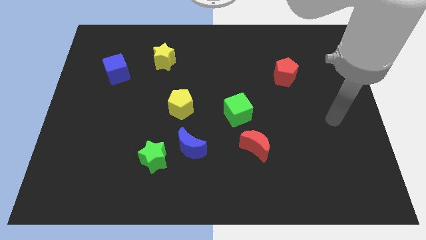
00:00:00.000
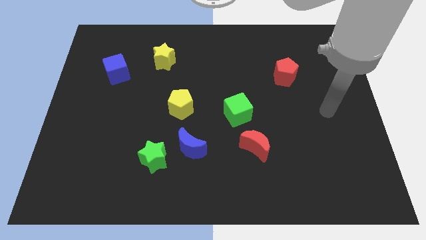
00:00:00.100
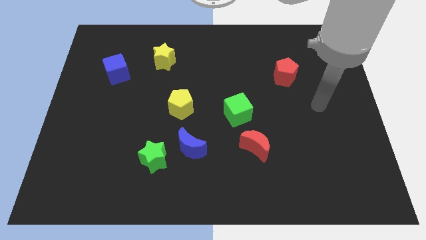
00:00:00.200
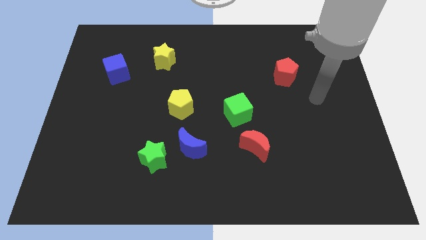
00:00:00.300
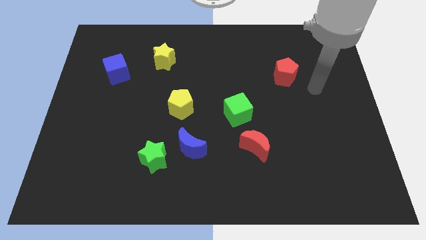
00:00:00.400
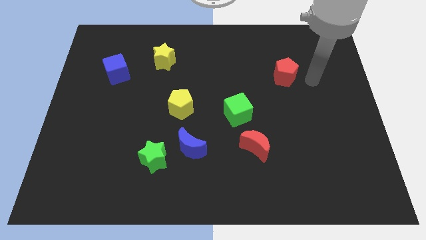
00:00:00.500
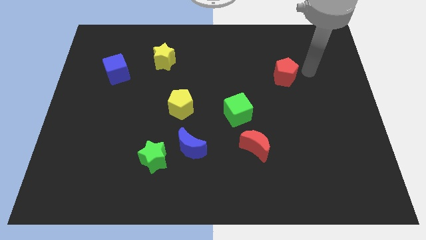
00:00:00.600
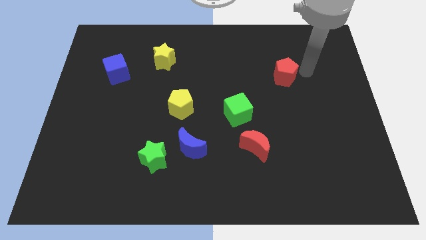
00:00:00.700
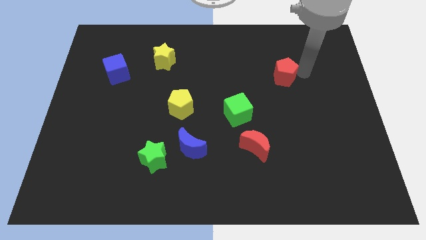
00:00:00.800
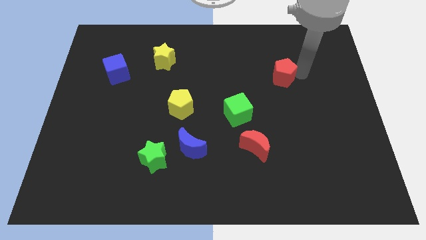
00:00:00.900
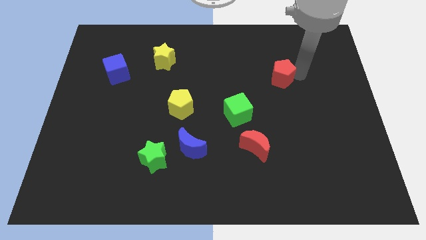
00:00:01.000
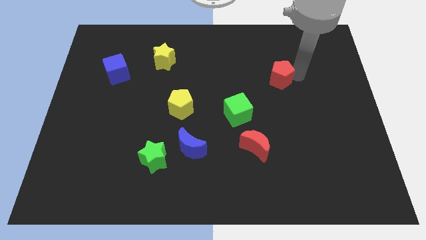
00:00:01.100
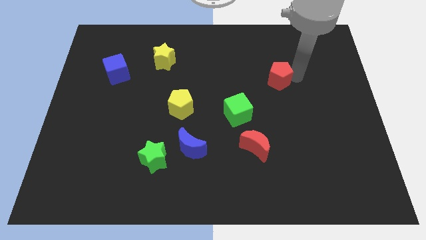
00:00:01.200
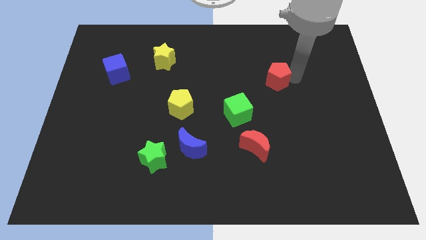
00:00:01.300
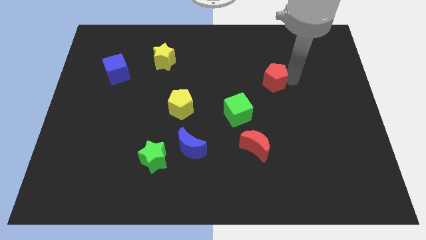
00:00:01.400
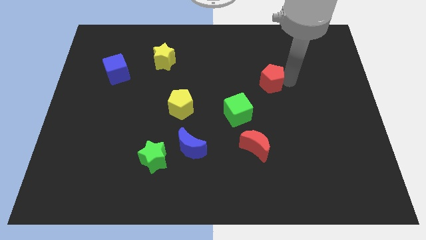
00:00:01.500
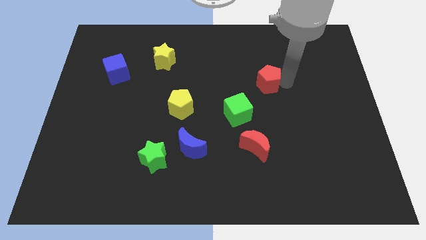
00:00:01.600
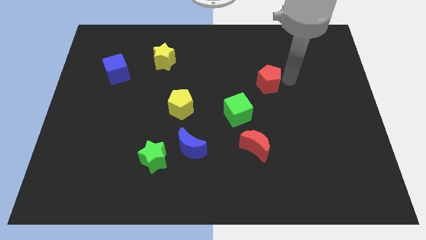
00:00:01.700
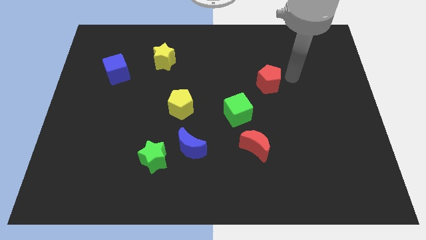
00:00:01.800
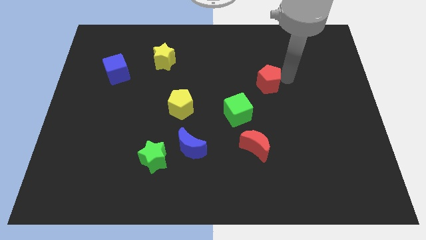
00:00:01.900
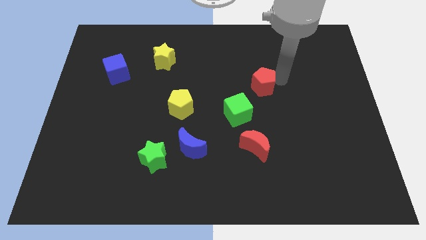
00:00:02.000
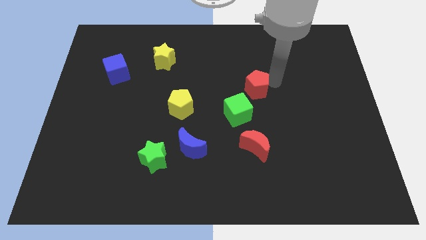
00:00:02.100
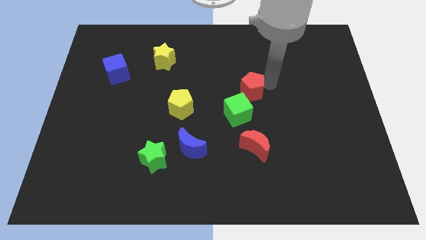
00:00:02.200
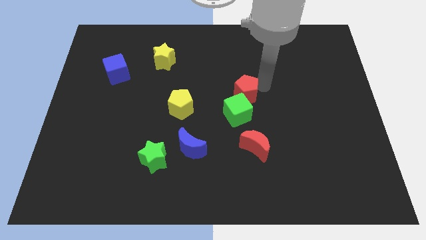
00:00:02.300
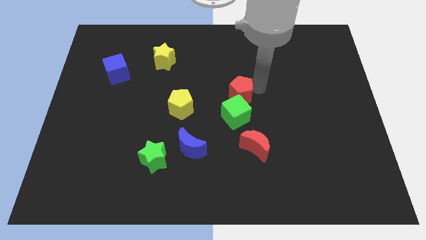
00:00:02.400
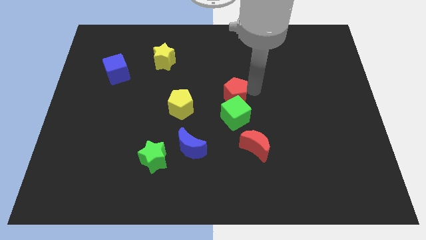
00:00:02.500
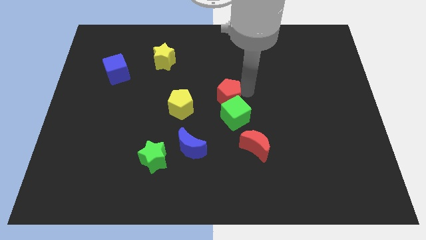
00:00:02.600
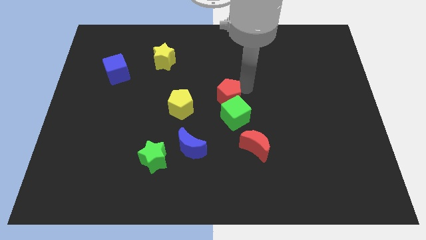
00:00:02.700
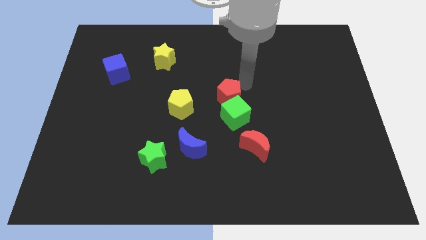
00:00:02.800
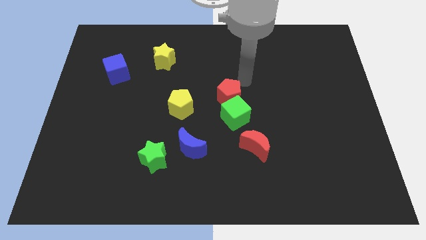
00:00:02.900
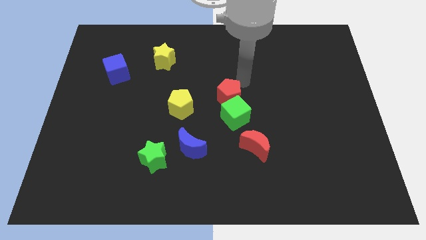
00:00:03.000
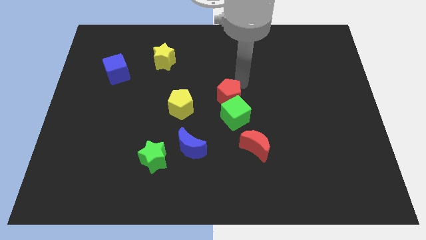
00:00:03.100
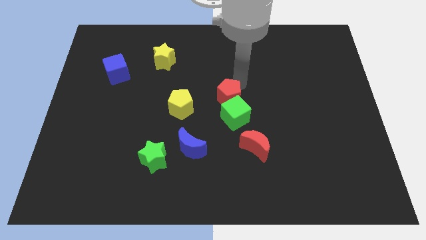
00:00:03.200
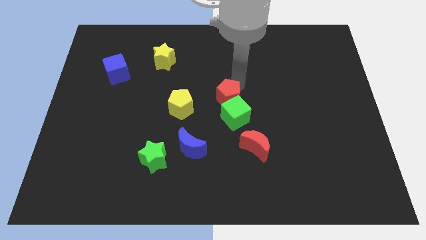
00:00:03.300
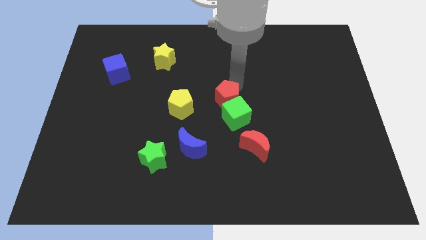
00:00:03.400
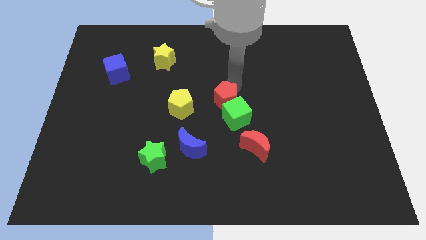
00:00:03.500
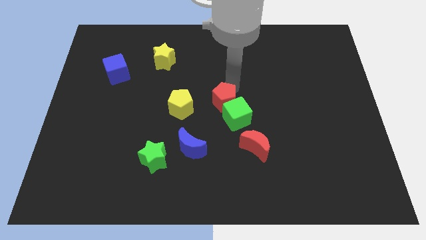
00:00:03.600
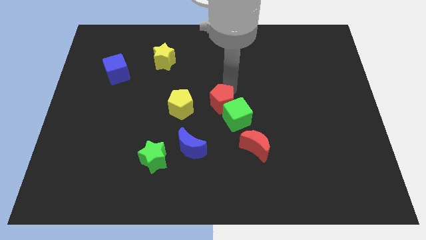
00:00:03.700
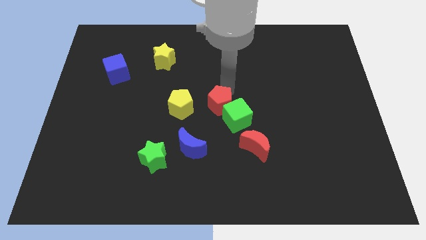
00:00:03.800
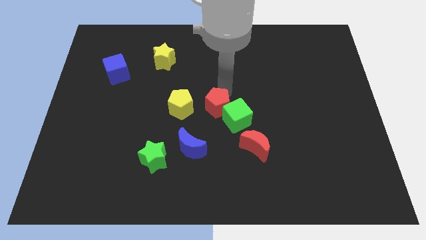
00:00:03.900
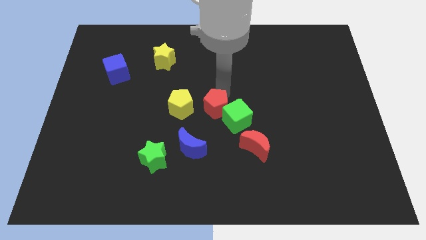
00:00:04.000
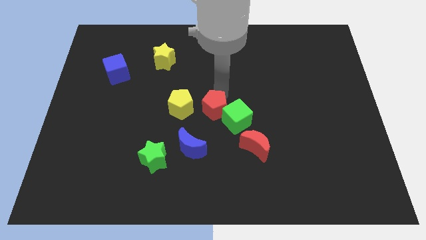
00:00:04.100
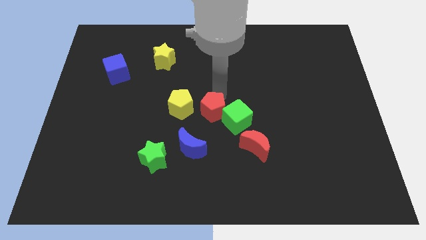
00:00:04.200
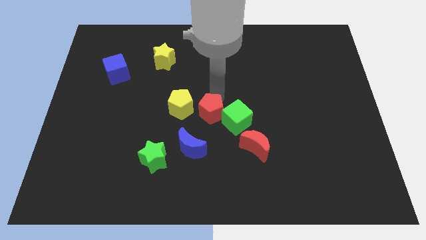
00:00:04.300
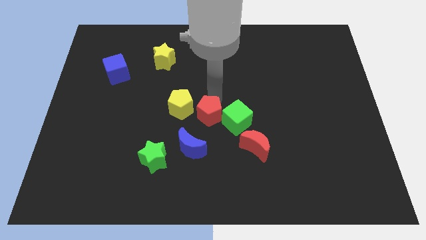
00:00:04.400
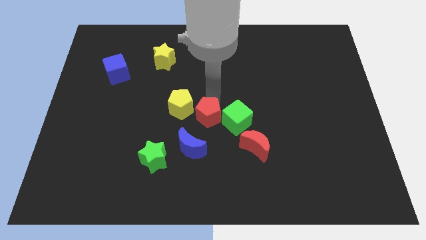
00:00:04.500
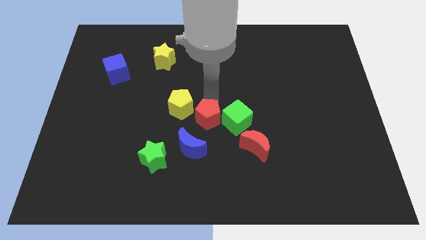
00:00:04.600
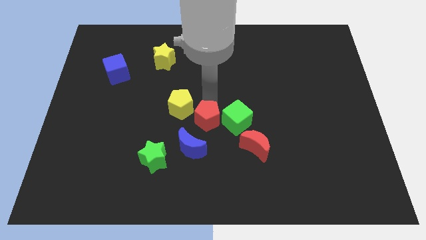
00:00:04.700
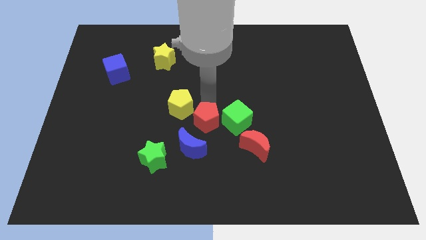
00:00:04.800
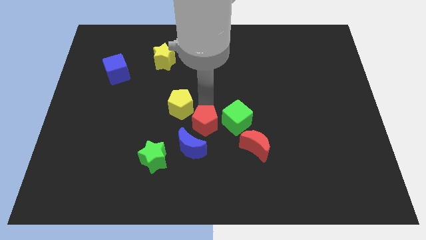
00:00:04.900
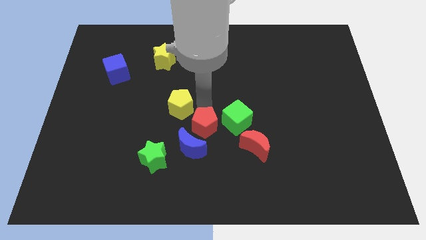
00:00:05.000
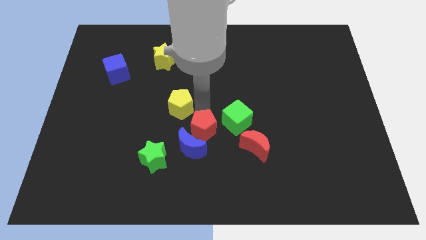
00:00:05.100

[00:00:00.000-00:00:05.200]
put the red pentagon close to the blue moon

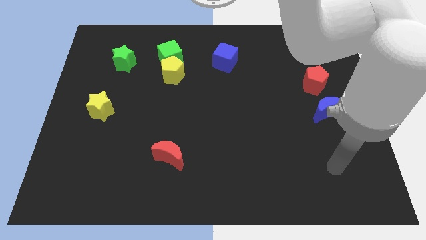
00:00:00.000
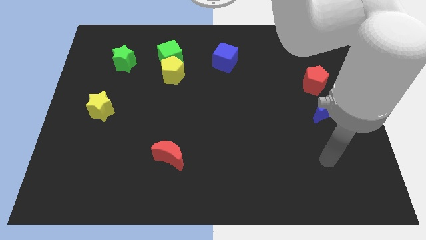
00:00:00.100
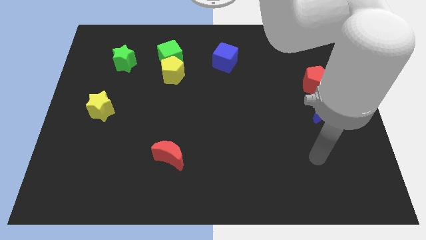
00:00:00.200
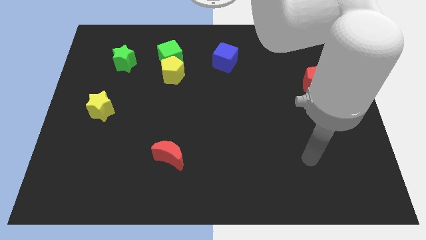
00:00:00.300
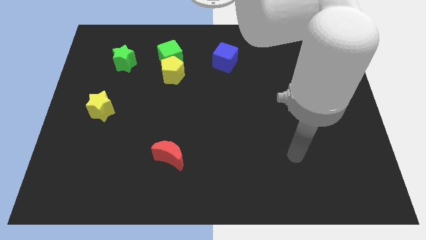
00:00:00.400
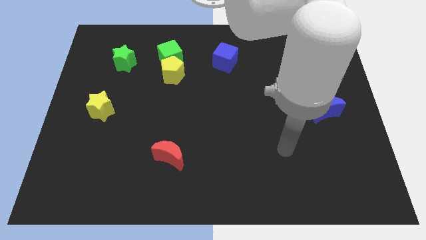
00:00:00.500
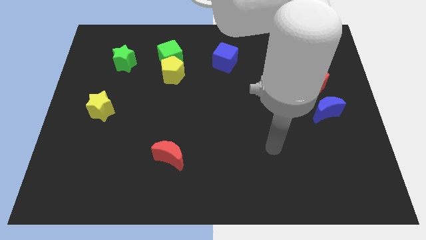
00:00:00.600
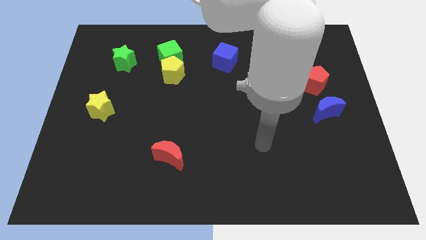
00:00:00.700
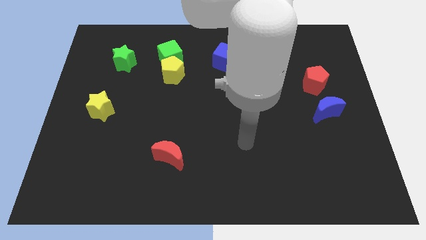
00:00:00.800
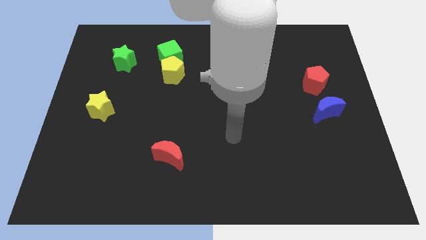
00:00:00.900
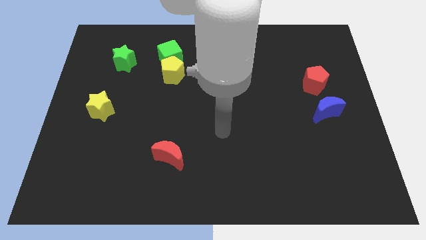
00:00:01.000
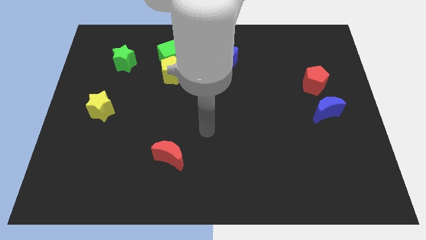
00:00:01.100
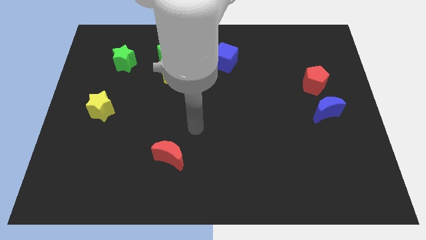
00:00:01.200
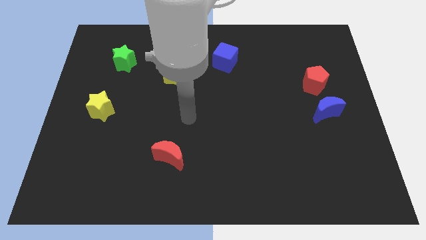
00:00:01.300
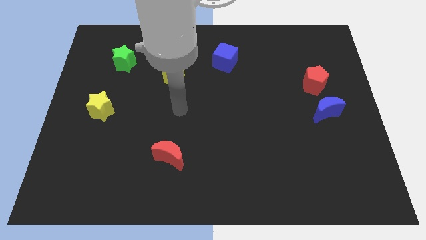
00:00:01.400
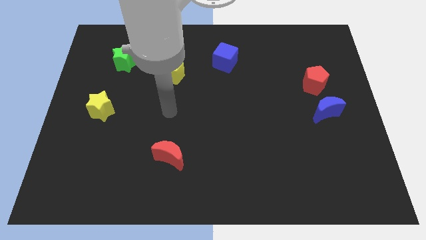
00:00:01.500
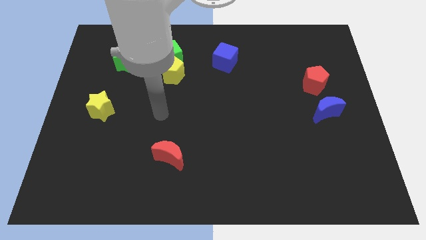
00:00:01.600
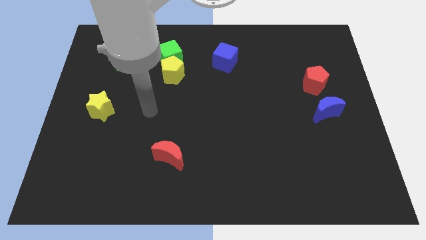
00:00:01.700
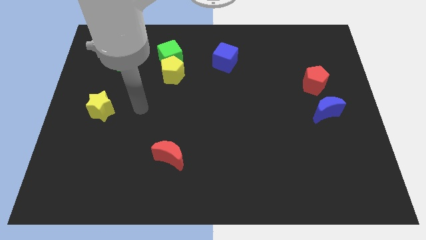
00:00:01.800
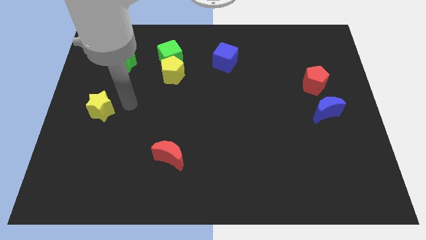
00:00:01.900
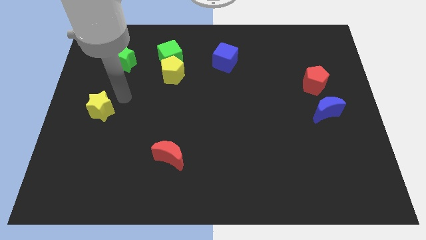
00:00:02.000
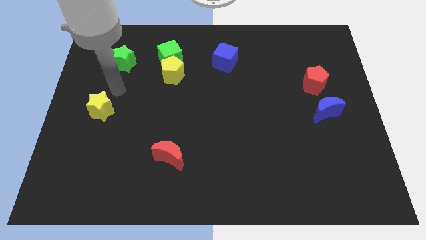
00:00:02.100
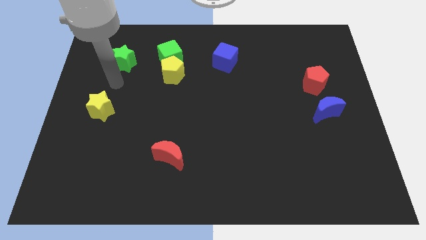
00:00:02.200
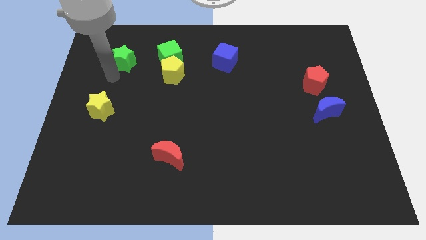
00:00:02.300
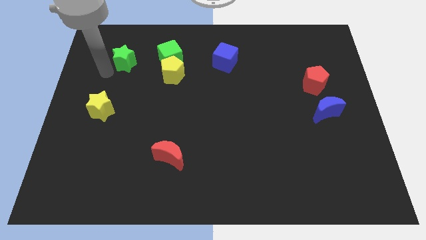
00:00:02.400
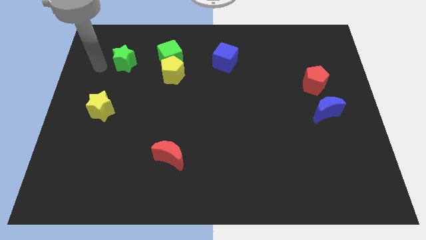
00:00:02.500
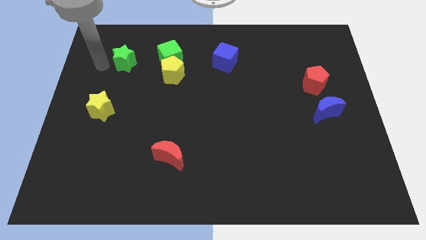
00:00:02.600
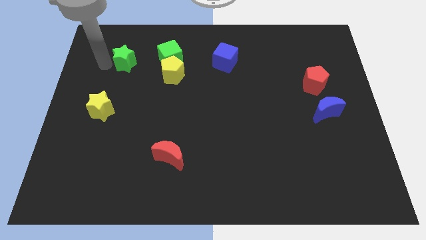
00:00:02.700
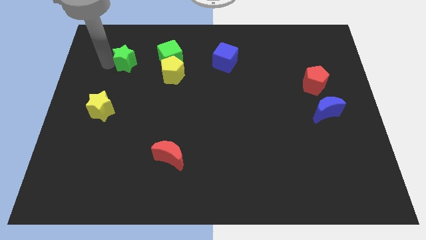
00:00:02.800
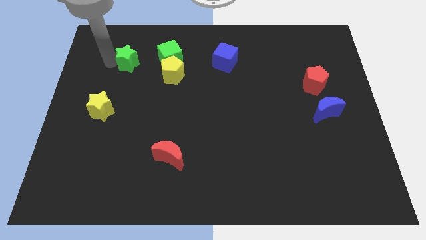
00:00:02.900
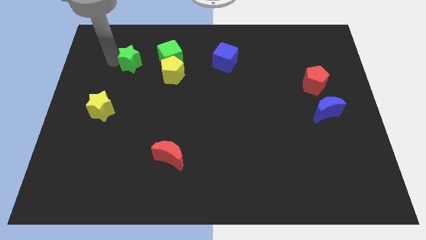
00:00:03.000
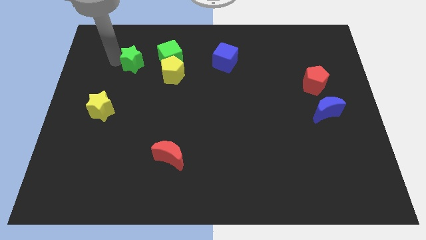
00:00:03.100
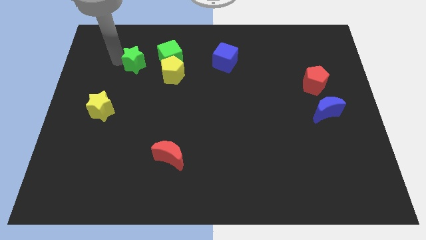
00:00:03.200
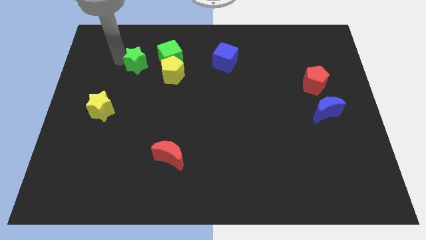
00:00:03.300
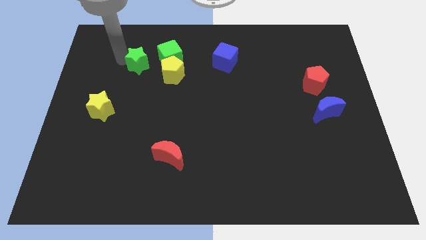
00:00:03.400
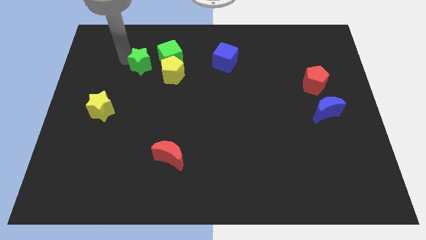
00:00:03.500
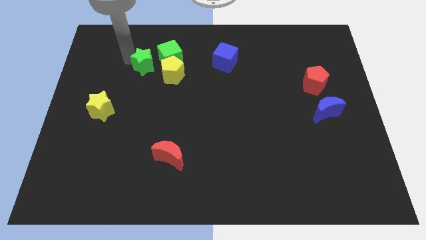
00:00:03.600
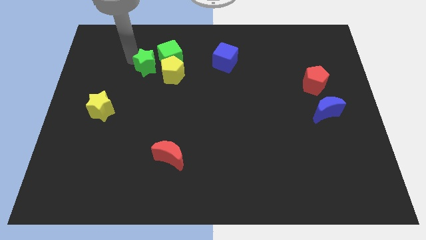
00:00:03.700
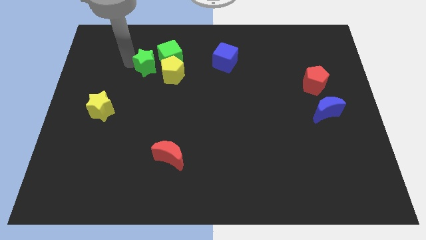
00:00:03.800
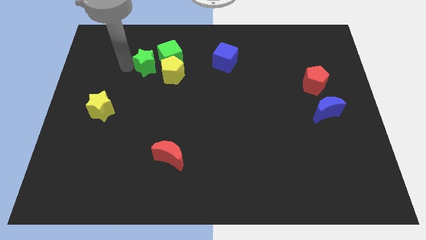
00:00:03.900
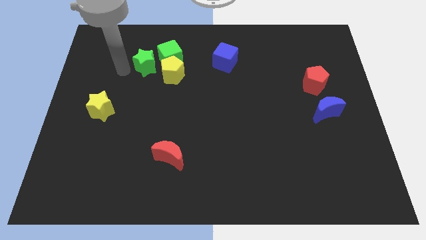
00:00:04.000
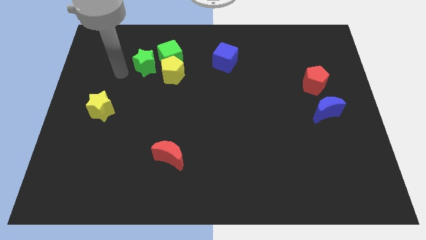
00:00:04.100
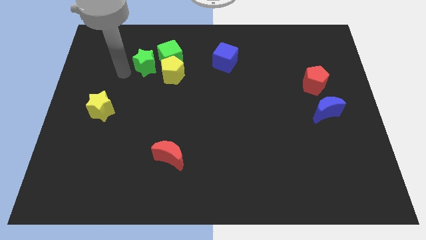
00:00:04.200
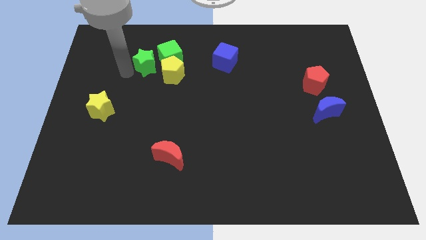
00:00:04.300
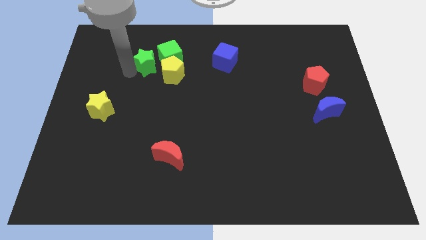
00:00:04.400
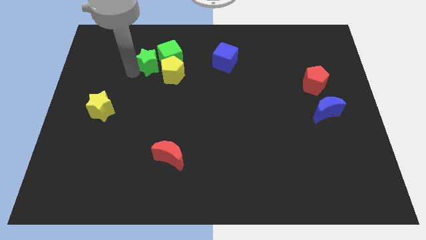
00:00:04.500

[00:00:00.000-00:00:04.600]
put the green star towards the green cube
